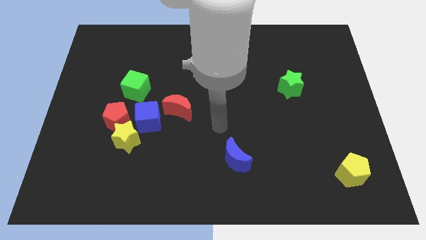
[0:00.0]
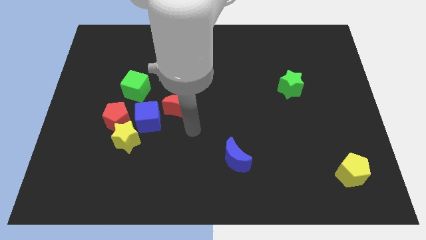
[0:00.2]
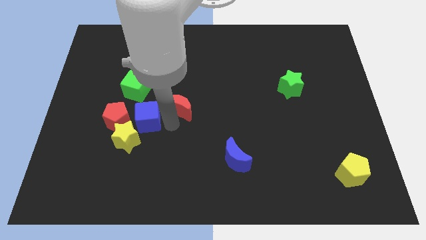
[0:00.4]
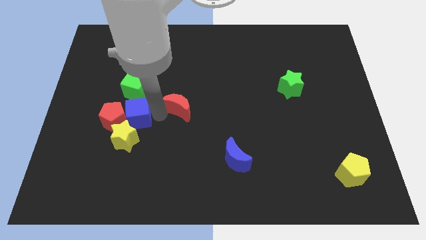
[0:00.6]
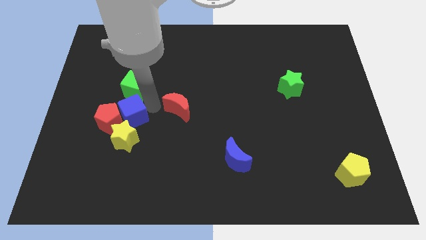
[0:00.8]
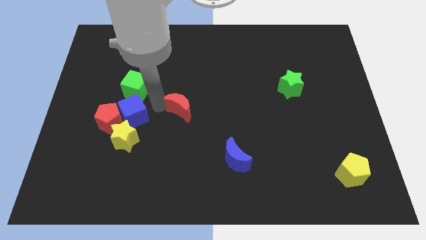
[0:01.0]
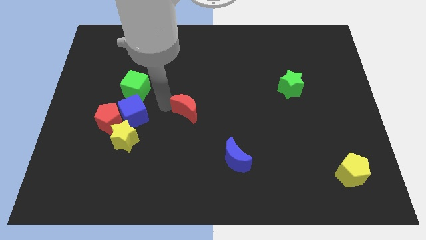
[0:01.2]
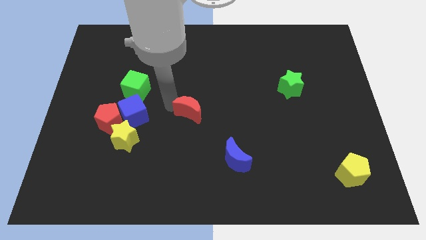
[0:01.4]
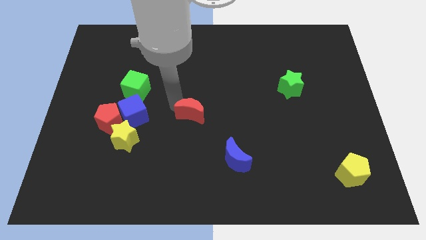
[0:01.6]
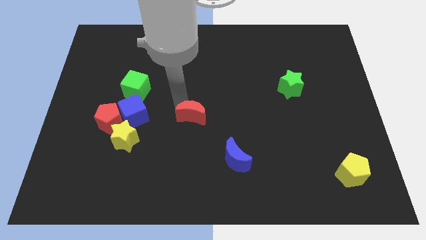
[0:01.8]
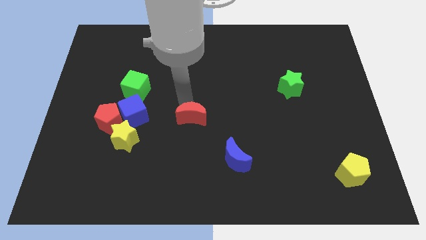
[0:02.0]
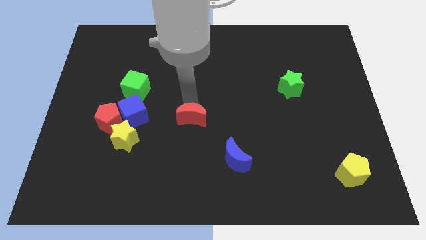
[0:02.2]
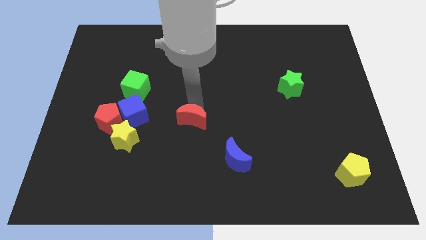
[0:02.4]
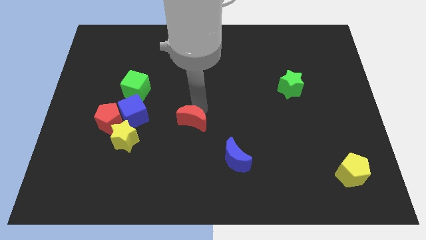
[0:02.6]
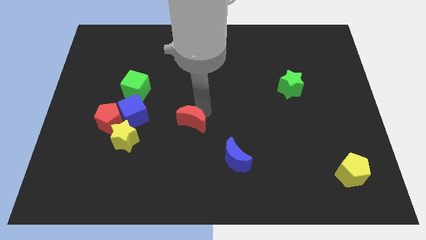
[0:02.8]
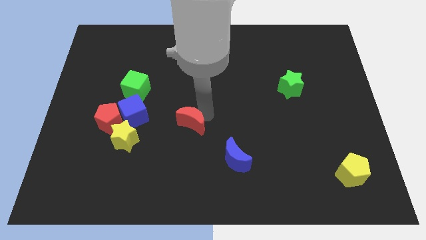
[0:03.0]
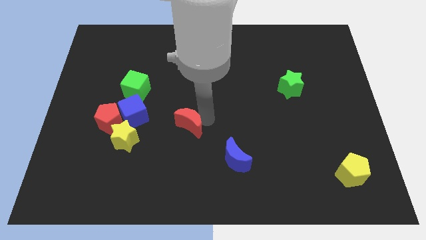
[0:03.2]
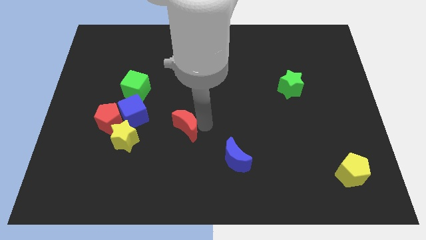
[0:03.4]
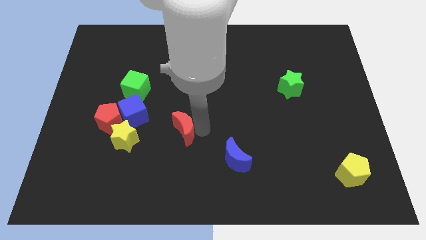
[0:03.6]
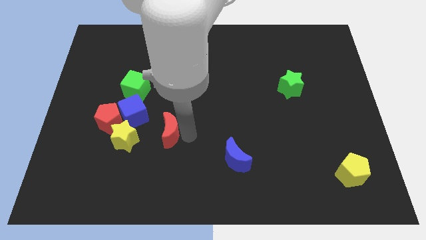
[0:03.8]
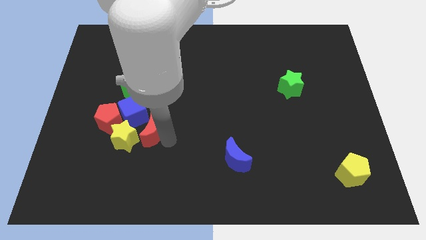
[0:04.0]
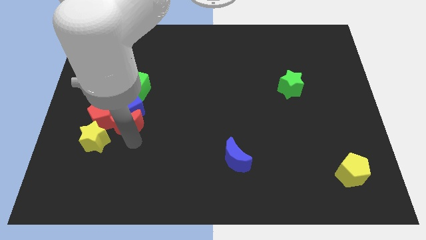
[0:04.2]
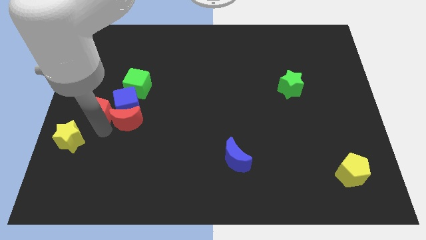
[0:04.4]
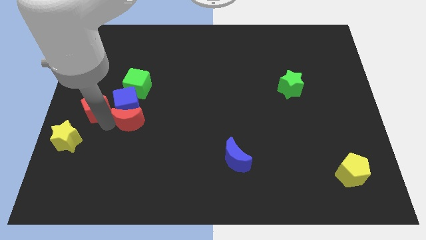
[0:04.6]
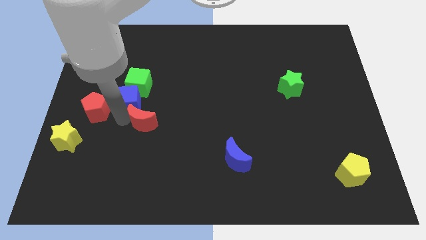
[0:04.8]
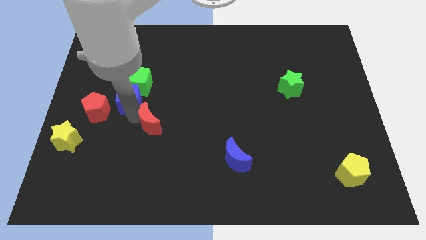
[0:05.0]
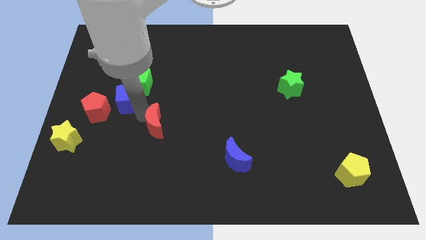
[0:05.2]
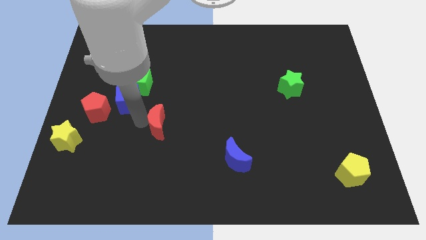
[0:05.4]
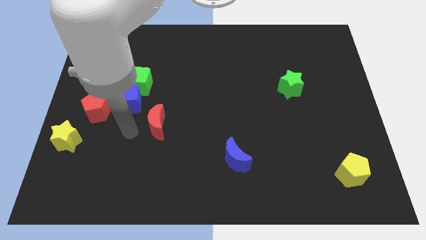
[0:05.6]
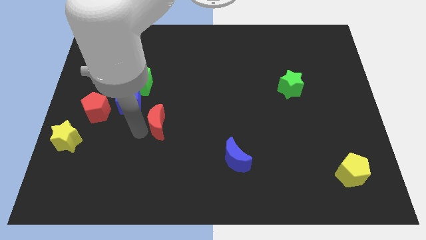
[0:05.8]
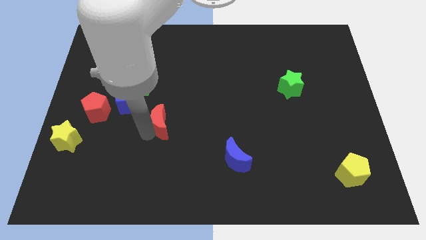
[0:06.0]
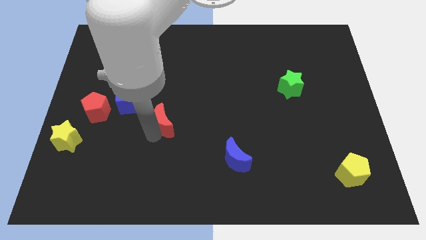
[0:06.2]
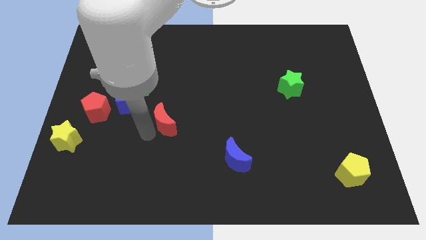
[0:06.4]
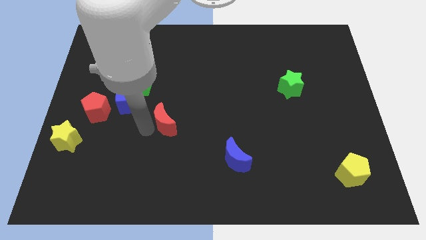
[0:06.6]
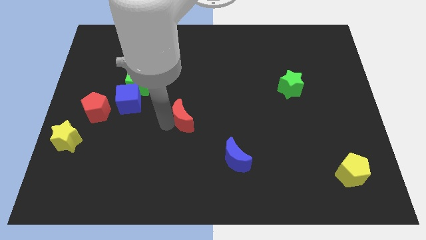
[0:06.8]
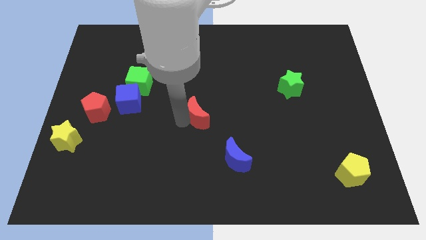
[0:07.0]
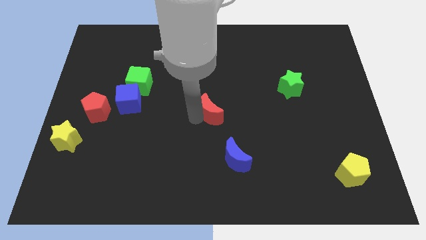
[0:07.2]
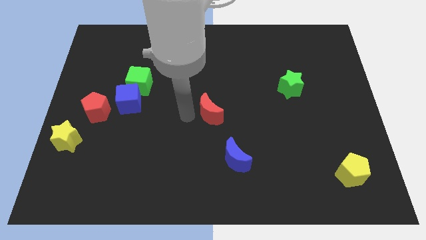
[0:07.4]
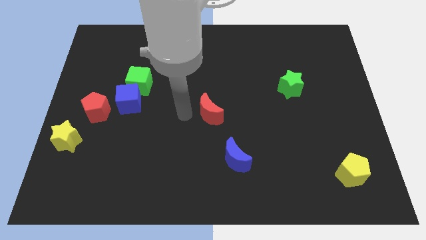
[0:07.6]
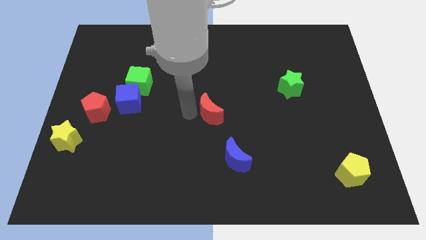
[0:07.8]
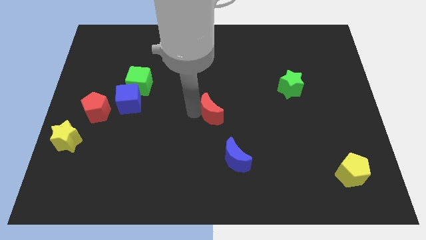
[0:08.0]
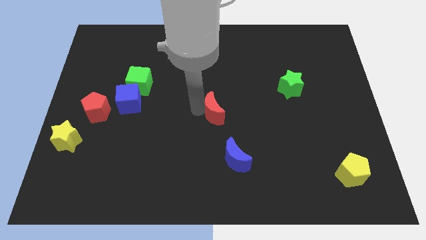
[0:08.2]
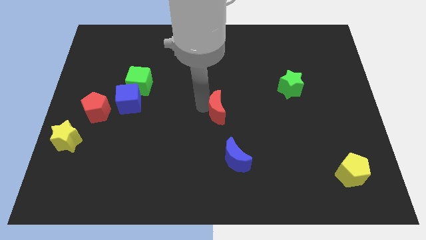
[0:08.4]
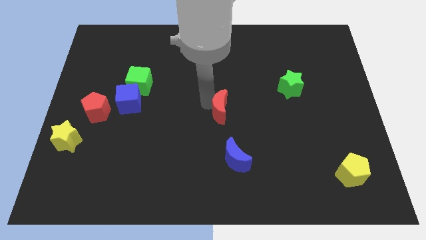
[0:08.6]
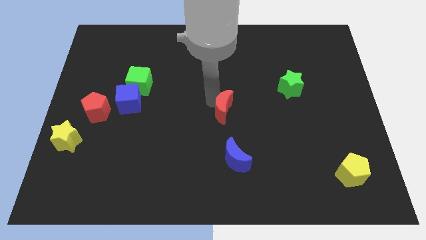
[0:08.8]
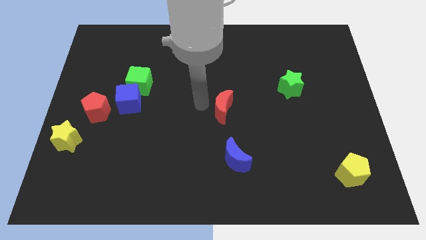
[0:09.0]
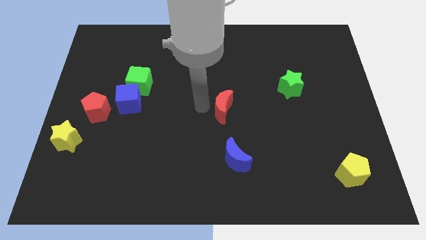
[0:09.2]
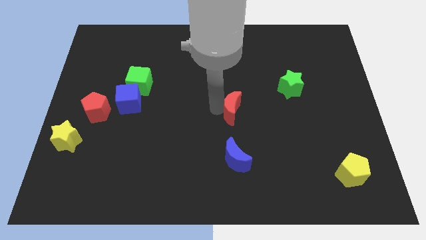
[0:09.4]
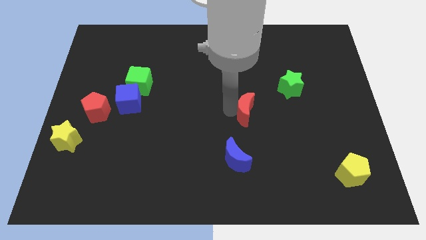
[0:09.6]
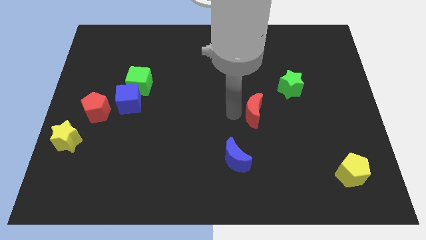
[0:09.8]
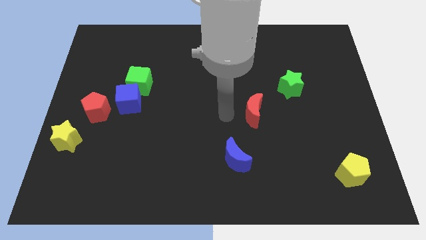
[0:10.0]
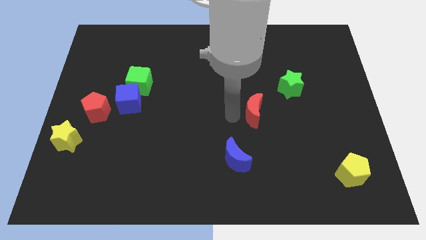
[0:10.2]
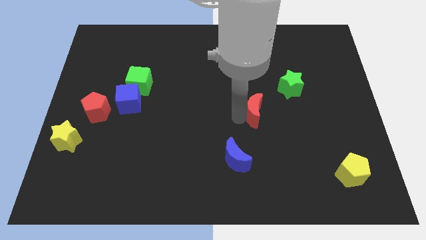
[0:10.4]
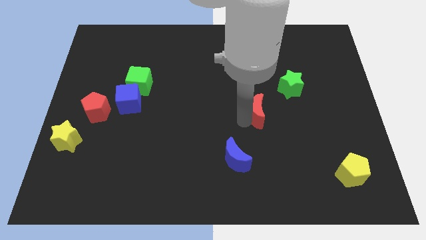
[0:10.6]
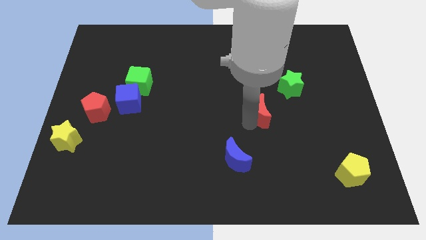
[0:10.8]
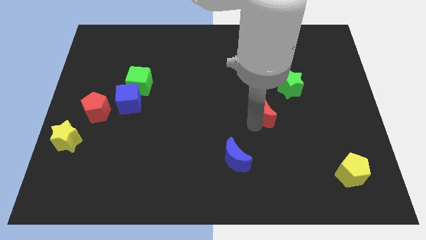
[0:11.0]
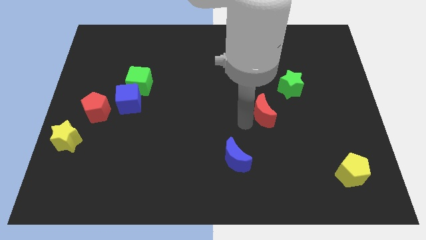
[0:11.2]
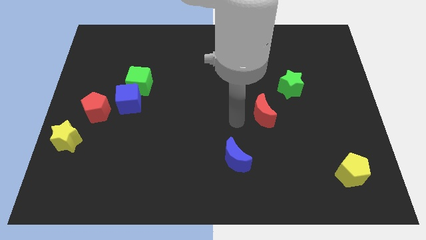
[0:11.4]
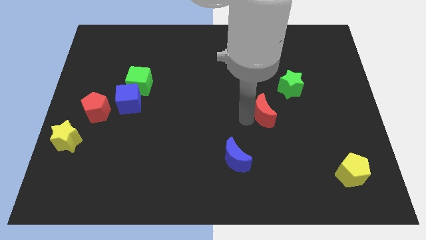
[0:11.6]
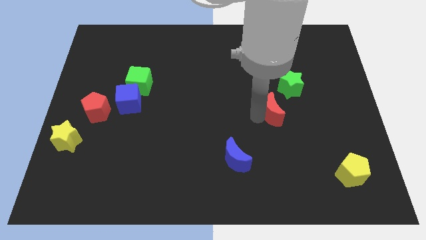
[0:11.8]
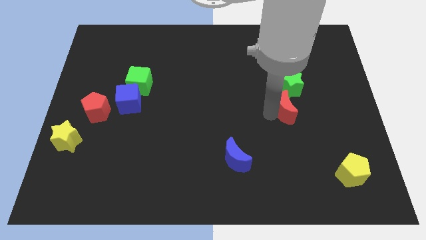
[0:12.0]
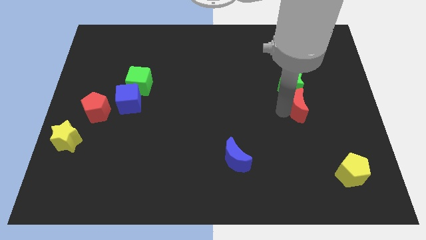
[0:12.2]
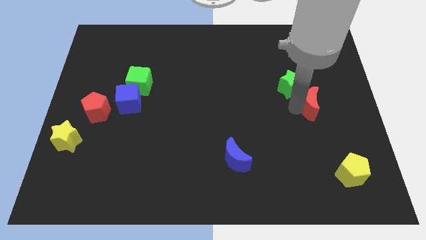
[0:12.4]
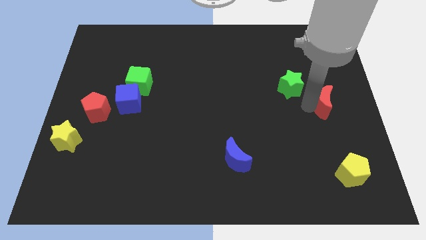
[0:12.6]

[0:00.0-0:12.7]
slide the red moon to the right side of the board
